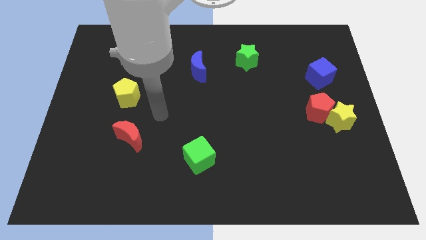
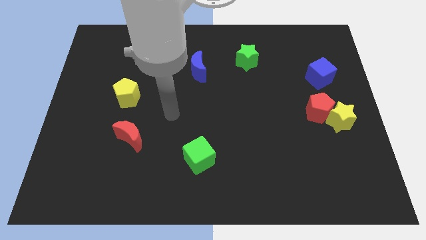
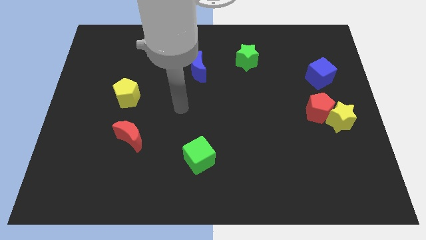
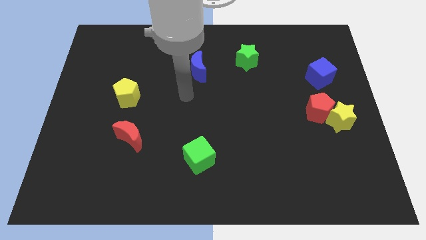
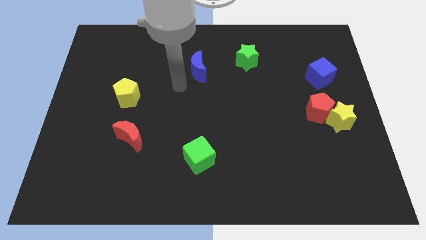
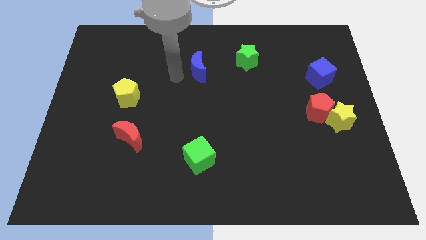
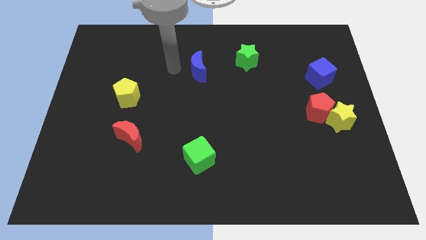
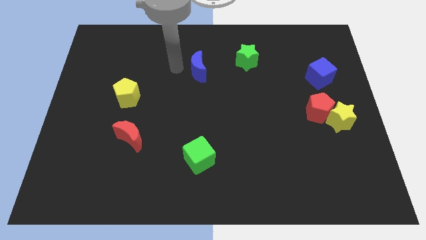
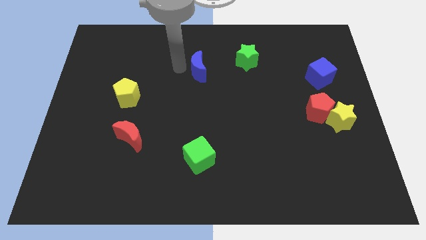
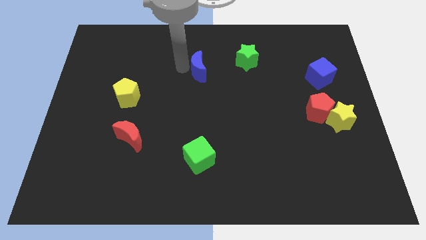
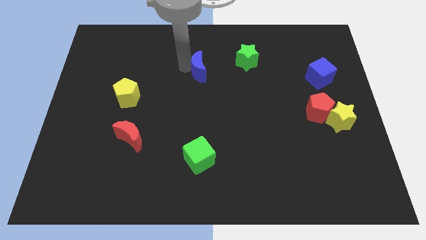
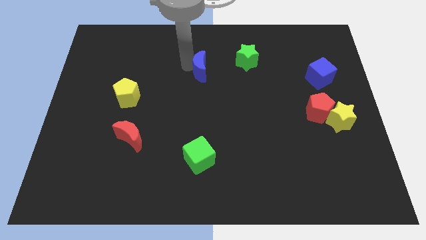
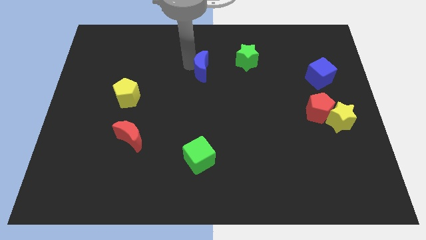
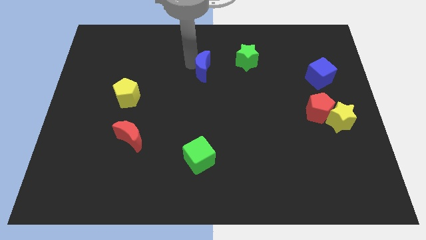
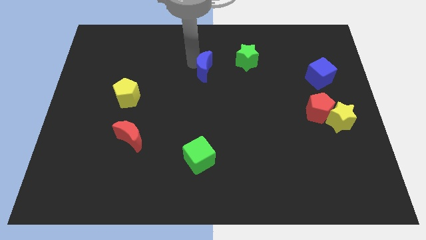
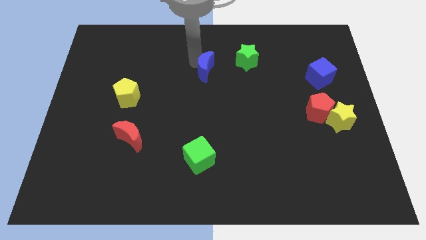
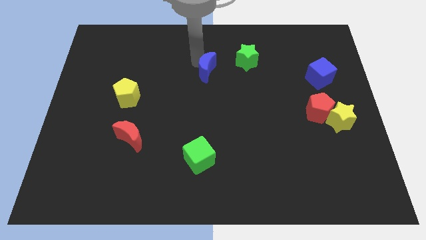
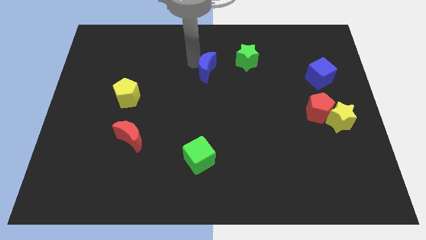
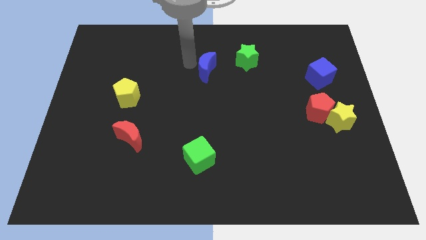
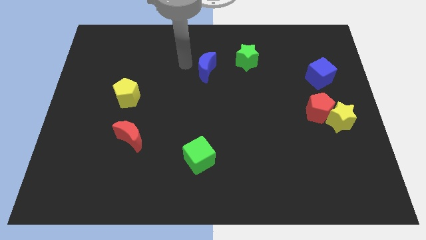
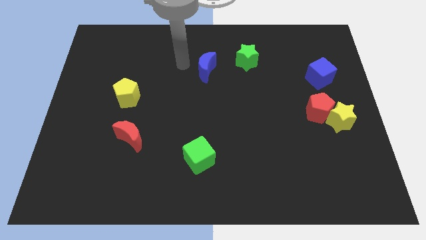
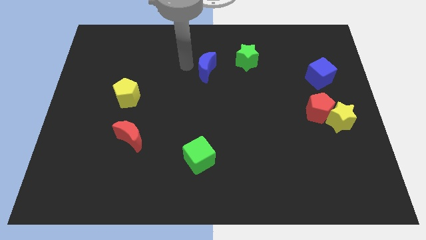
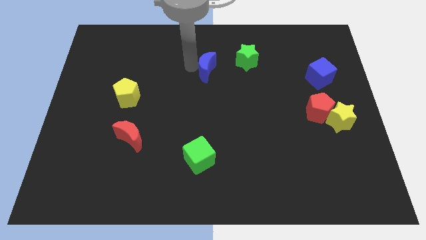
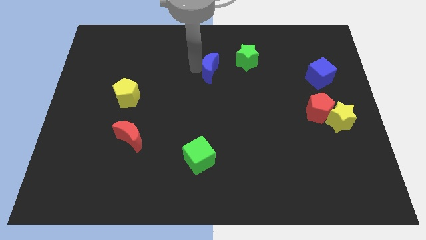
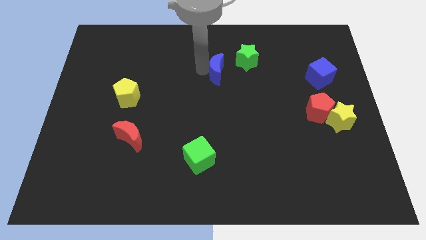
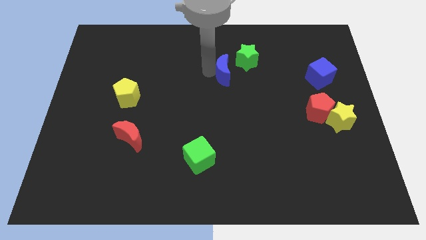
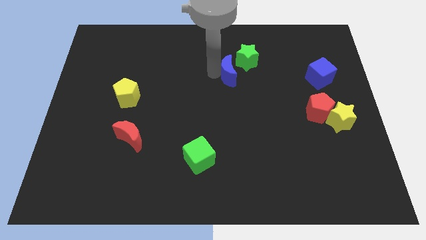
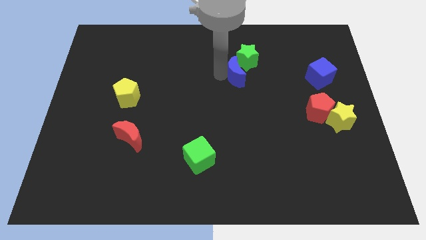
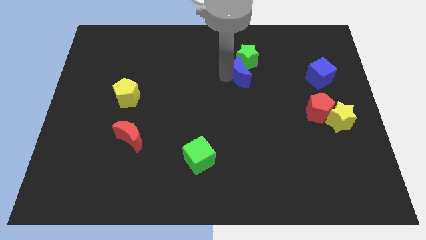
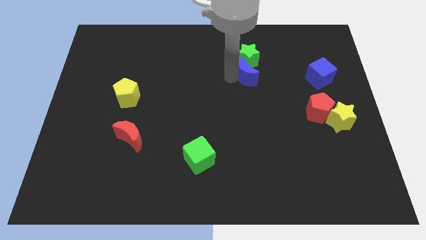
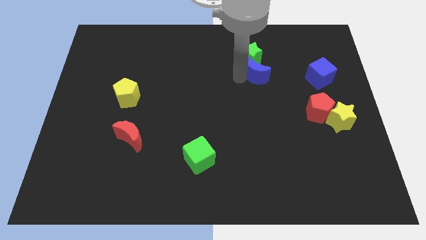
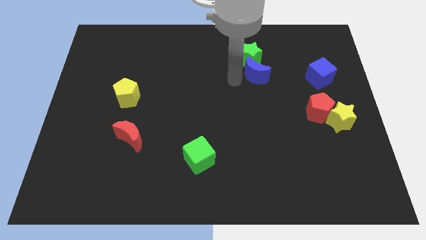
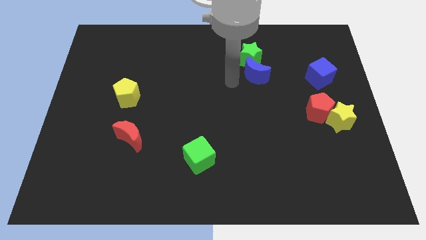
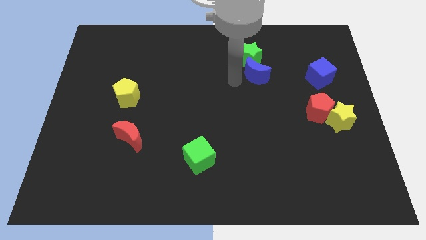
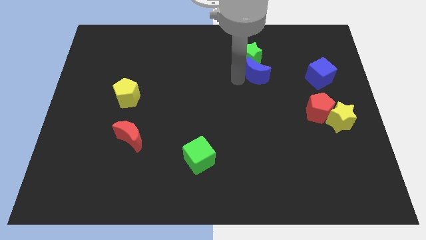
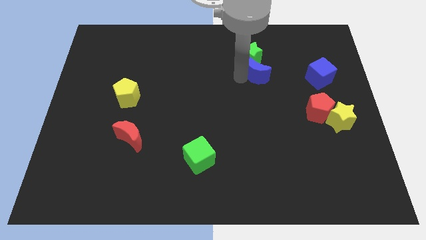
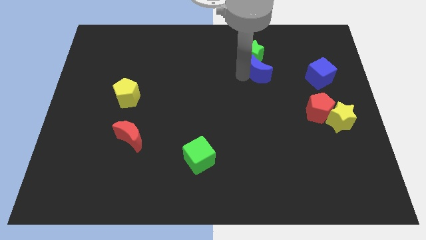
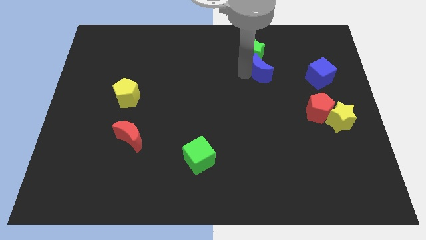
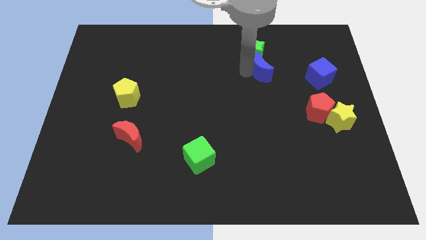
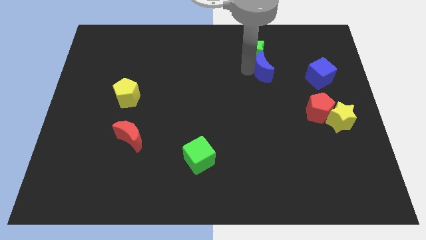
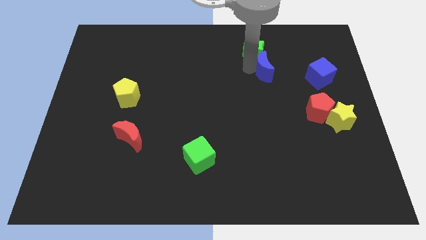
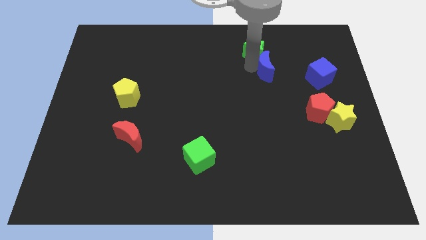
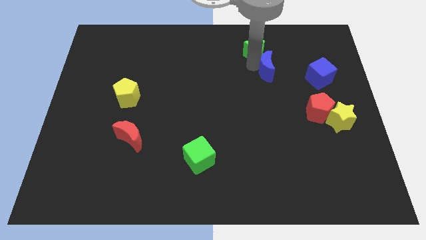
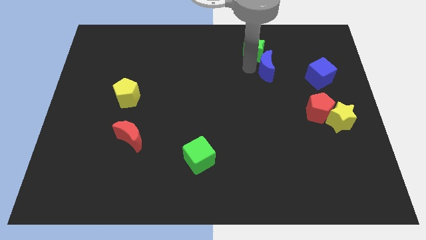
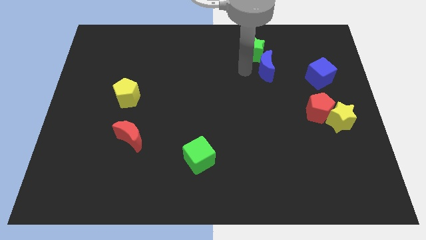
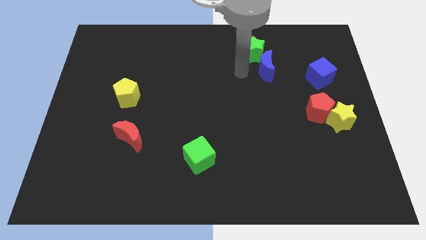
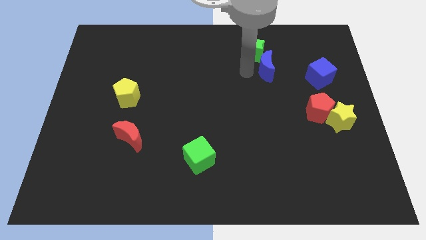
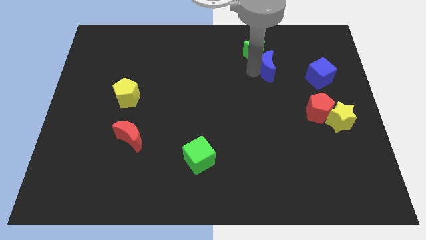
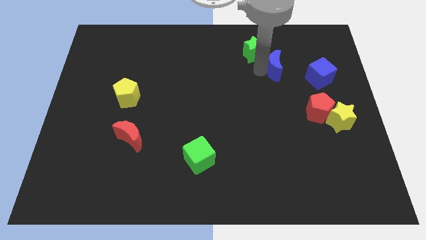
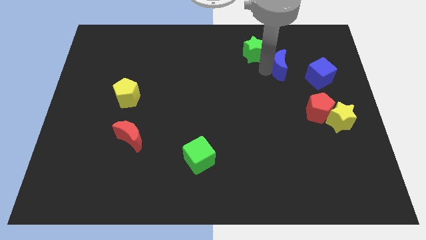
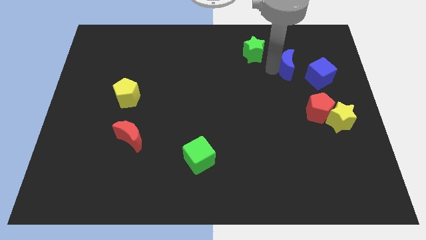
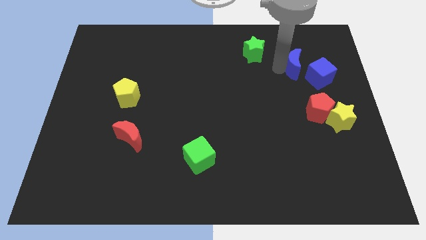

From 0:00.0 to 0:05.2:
push the blue moon to the top of the red pentagon

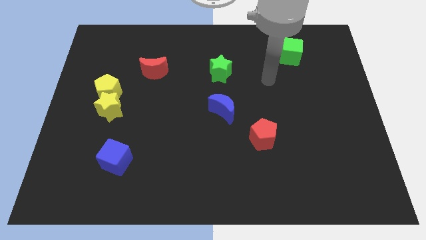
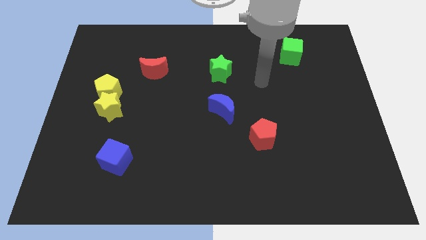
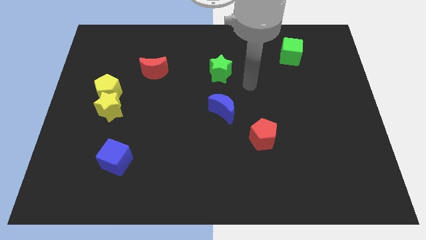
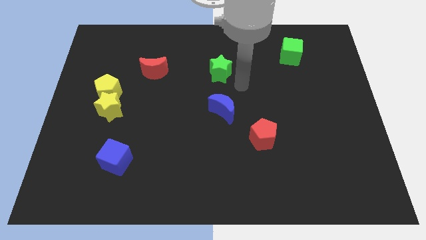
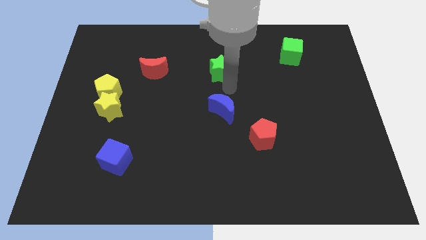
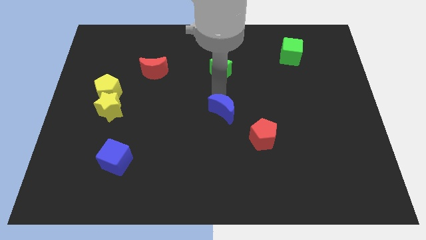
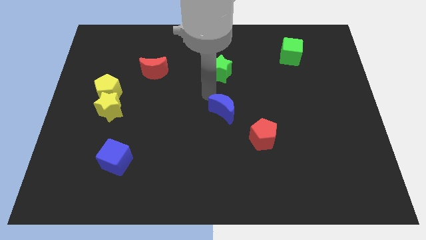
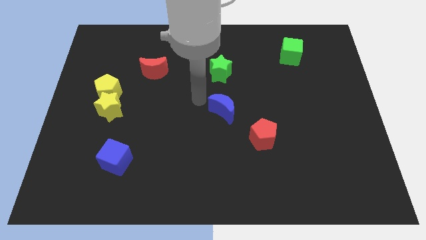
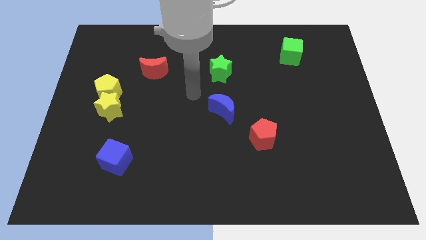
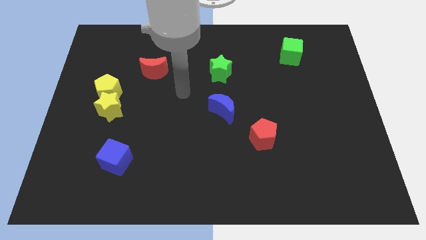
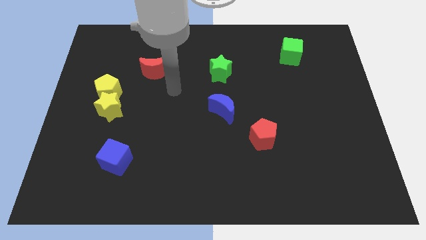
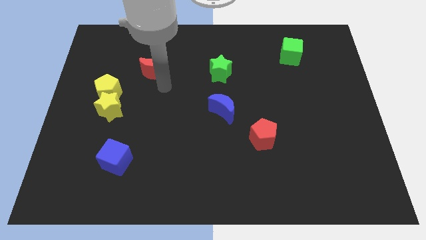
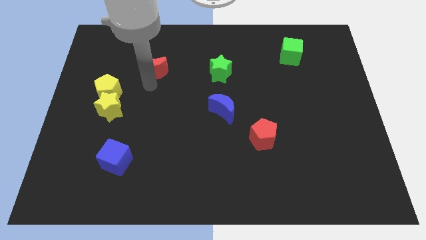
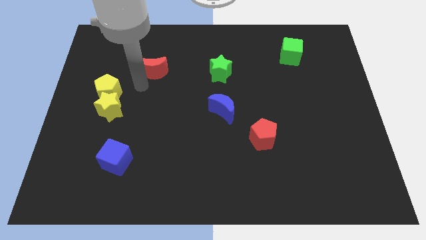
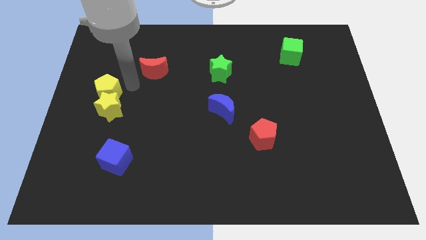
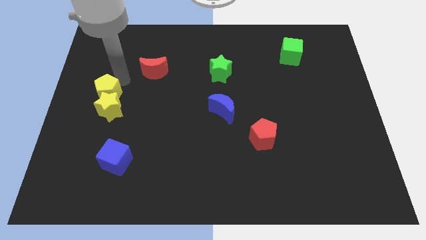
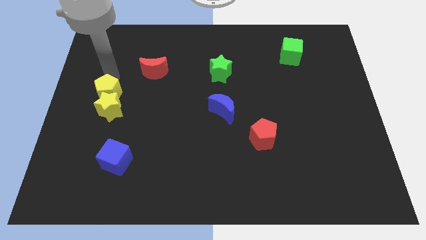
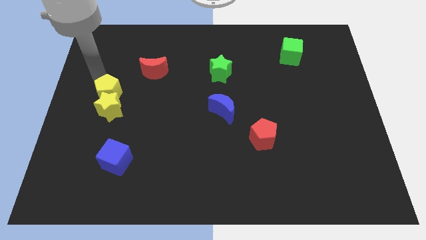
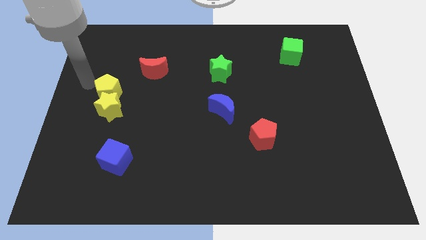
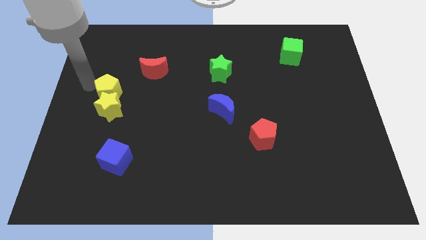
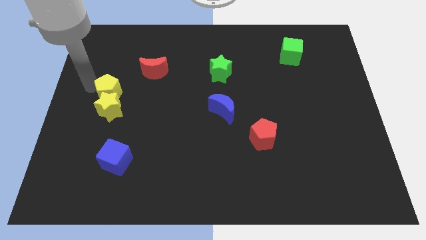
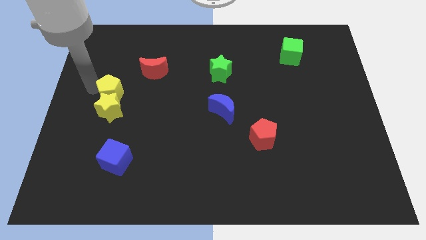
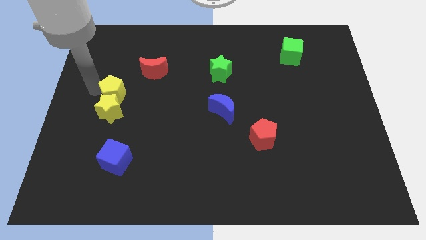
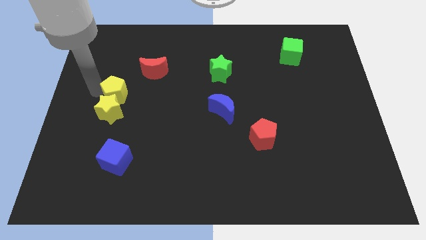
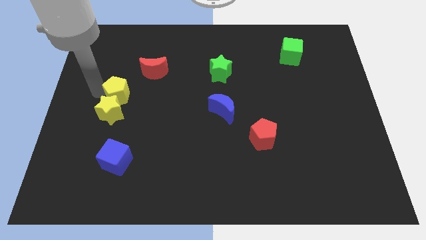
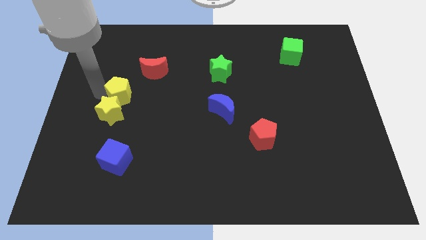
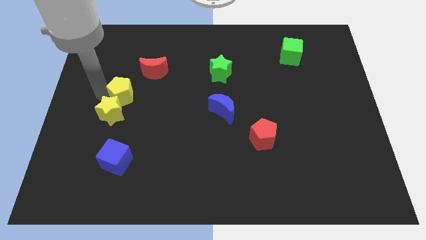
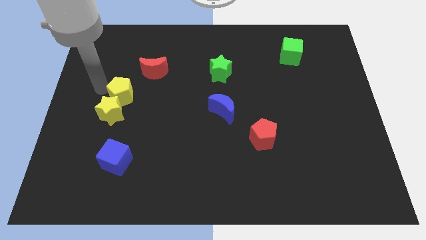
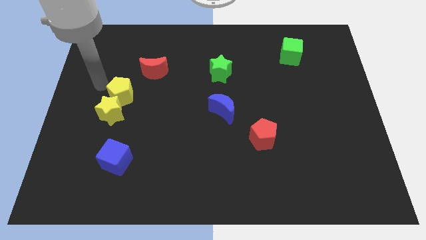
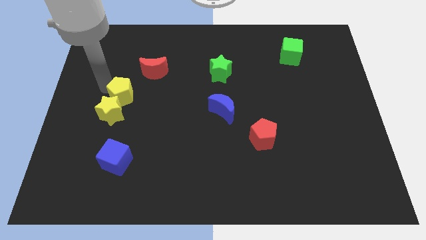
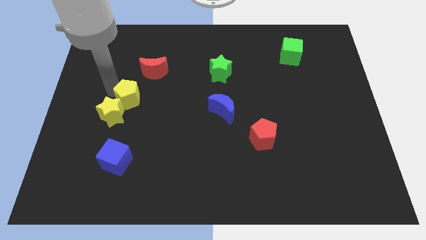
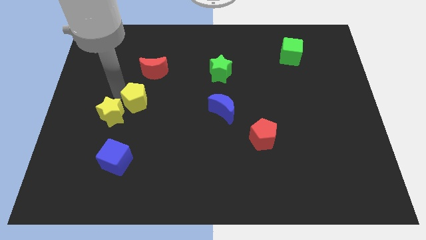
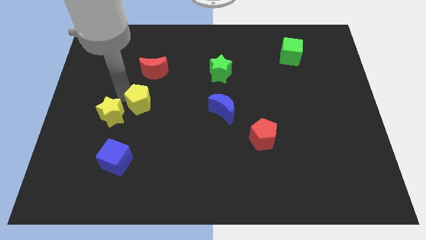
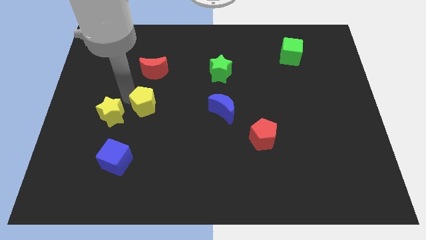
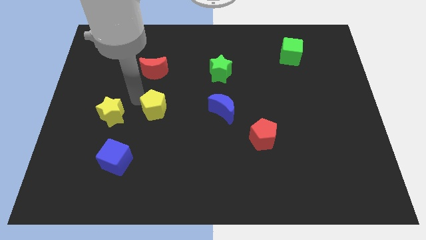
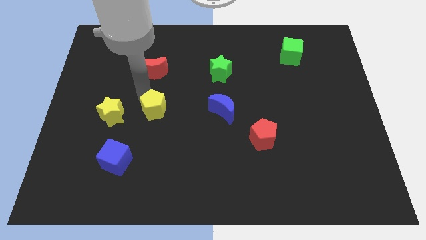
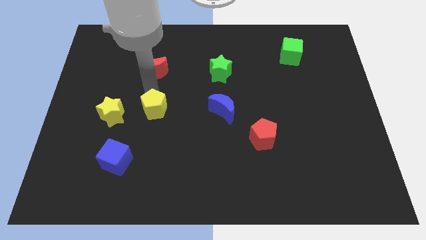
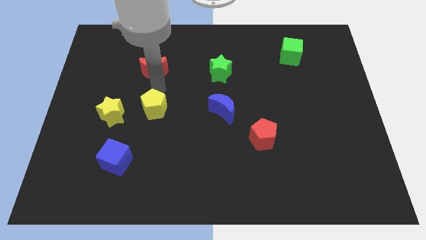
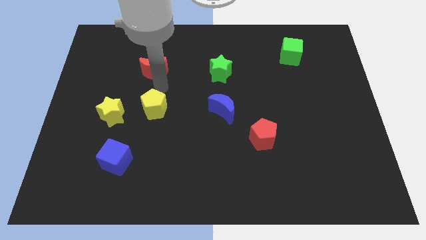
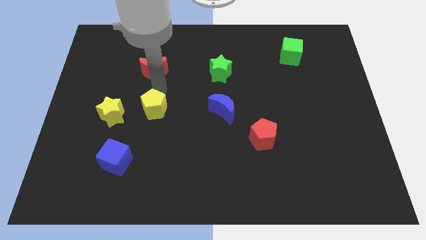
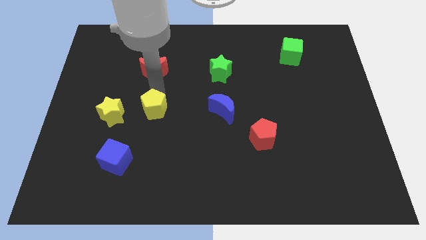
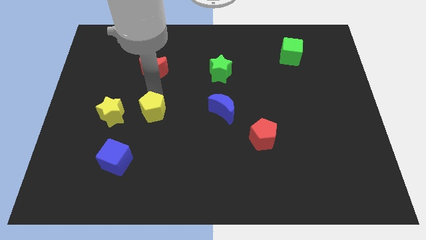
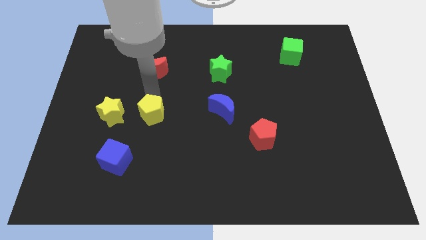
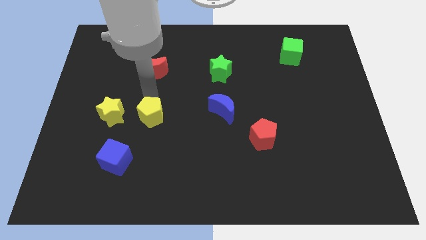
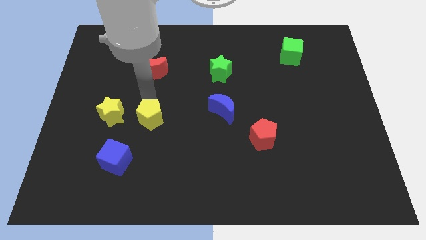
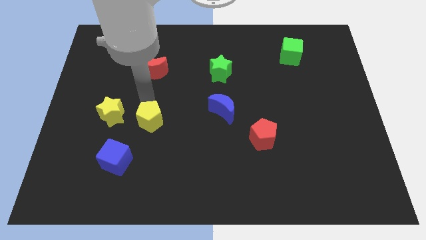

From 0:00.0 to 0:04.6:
slide the yellow pentagon to the top right of the blue cube
